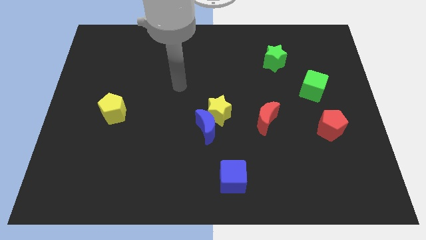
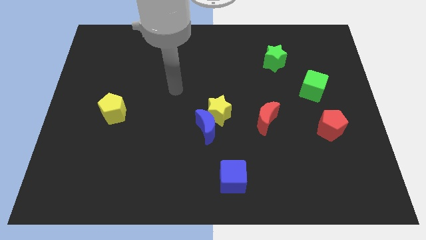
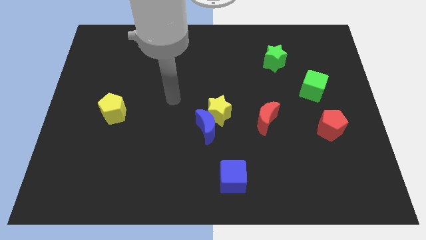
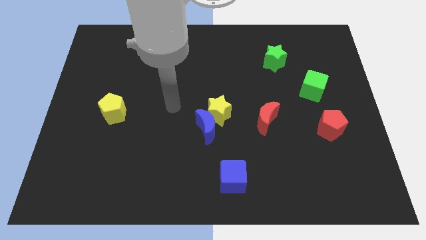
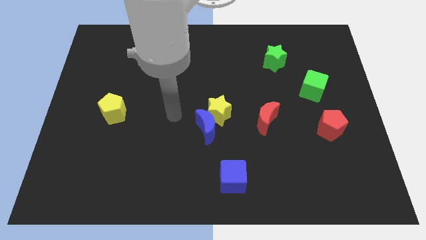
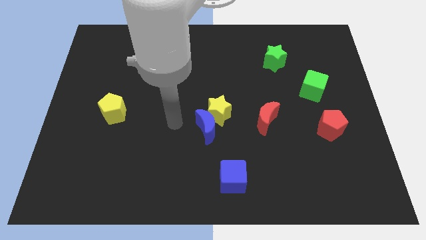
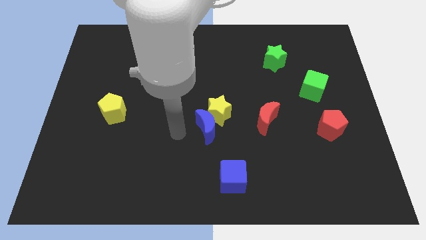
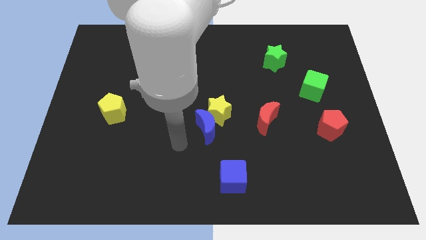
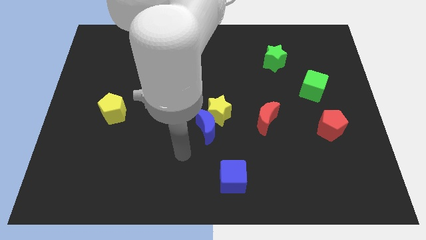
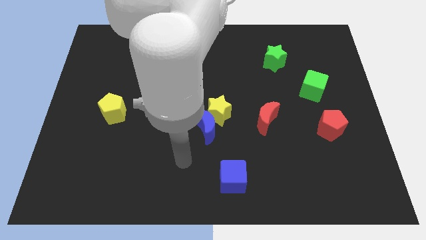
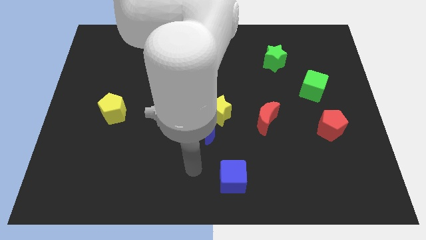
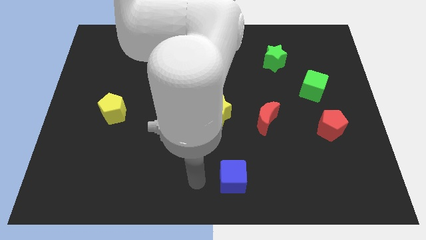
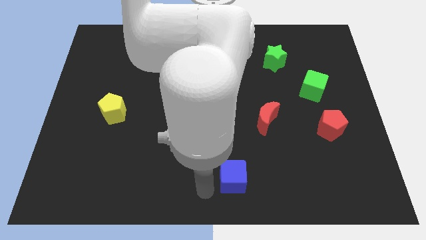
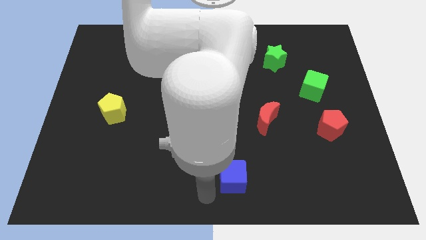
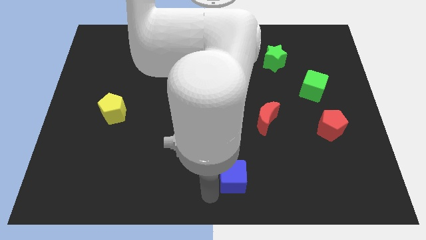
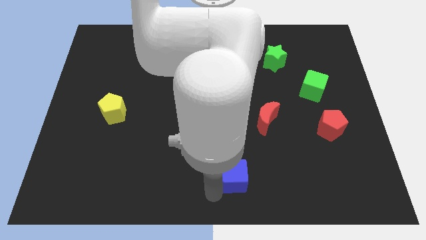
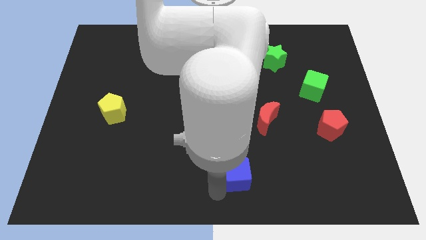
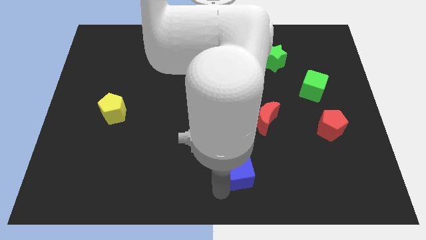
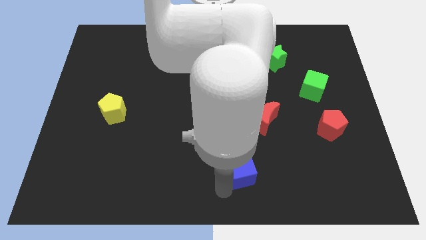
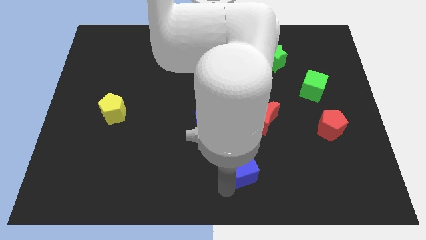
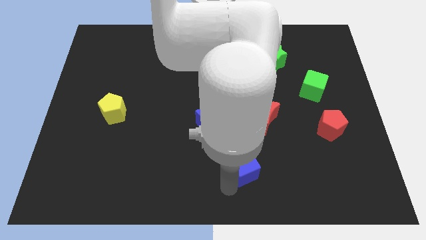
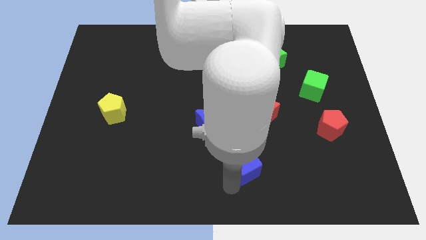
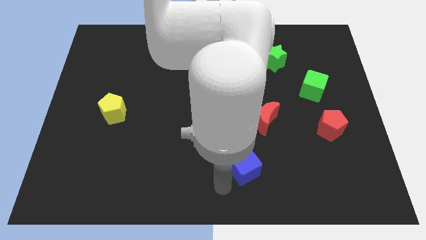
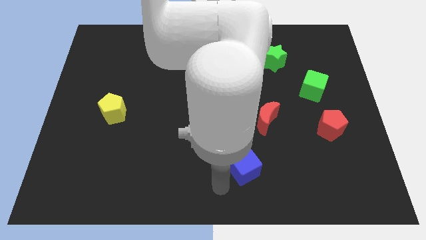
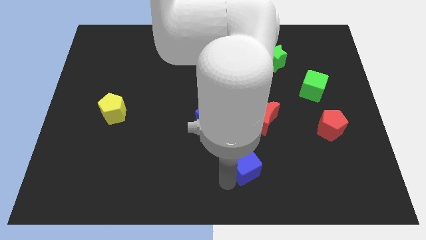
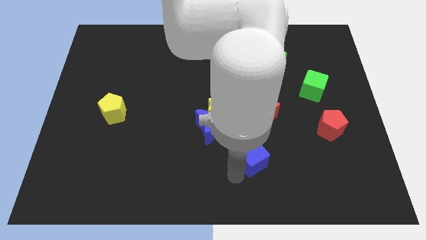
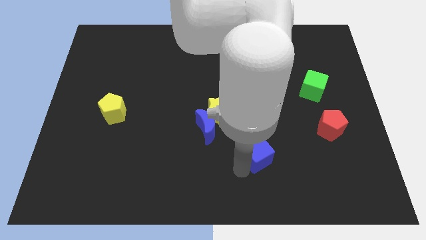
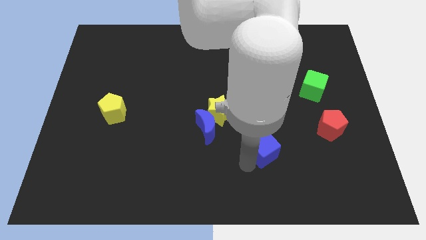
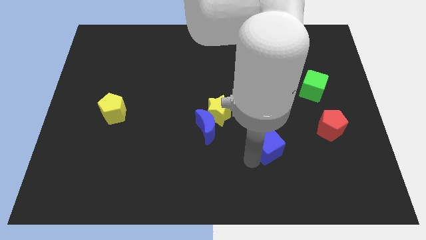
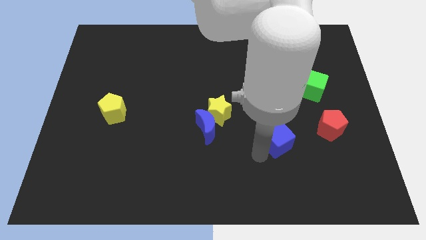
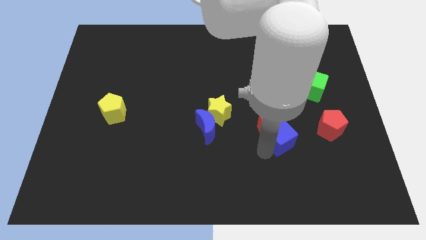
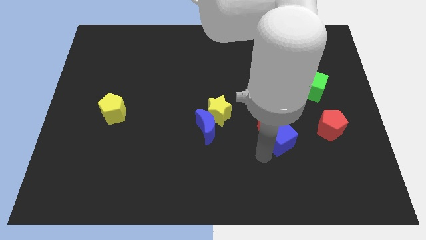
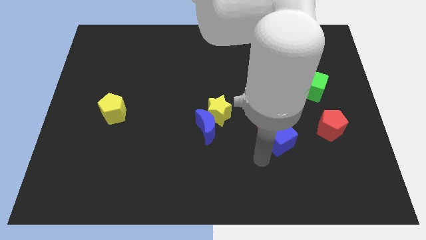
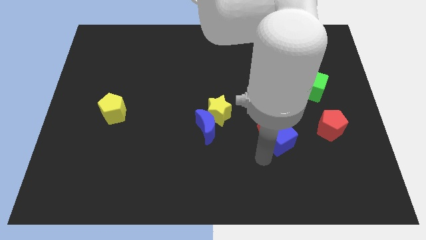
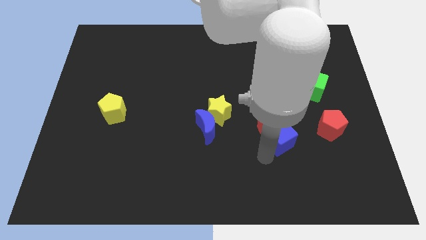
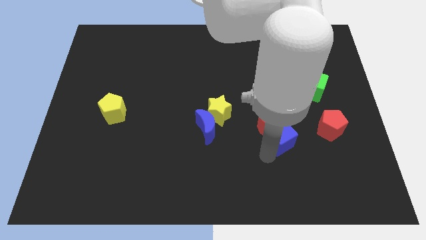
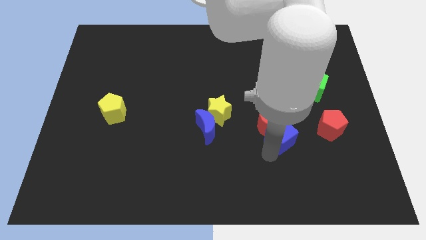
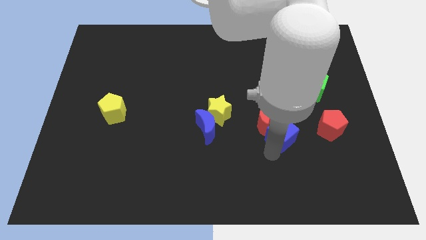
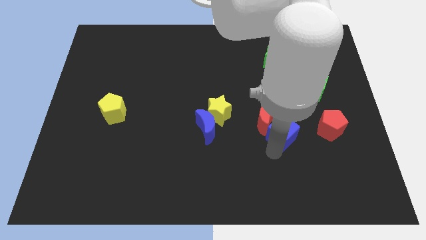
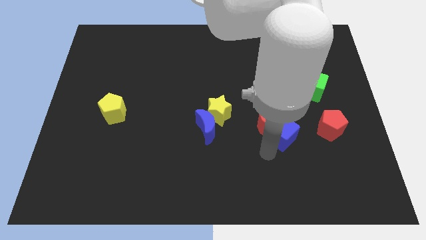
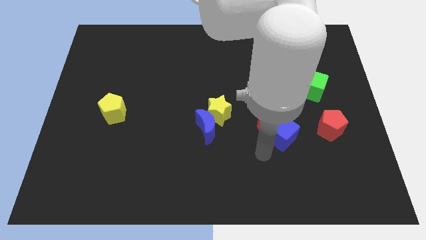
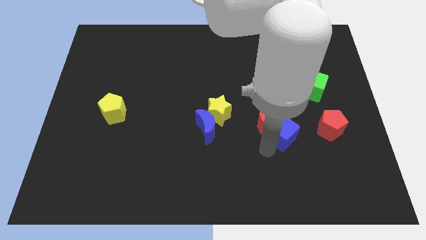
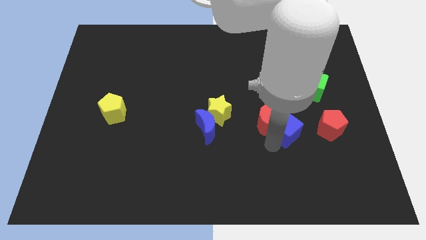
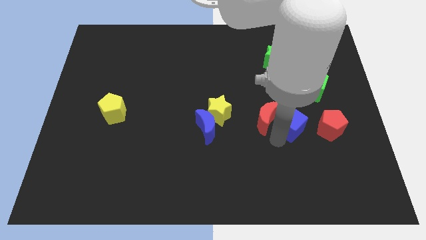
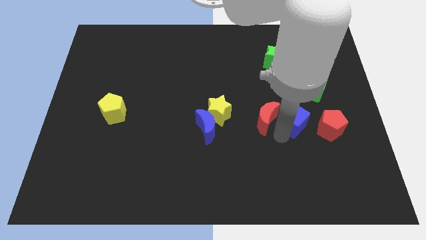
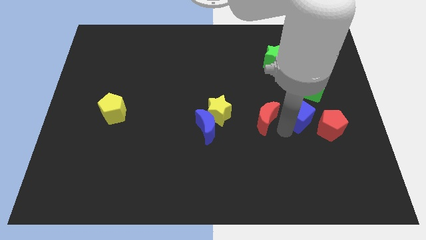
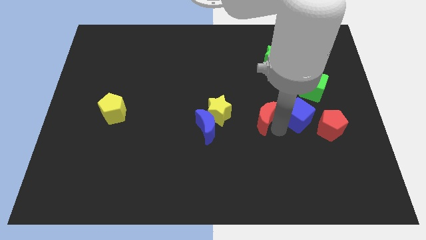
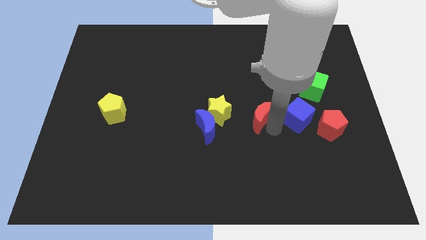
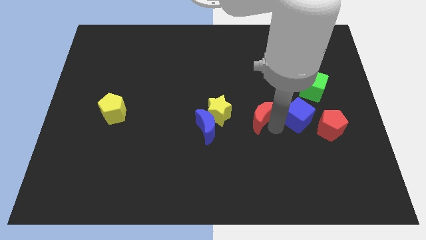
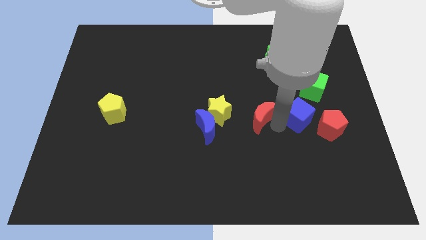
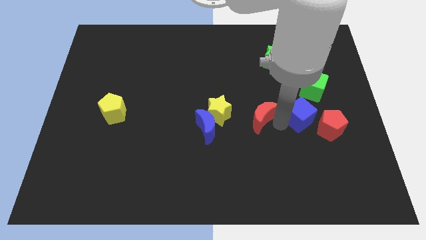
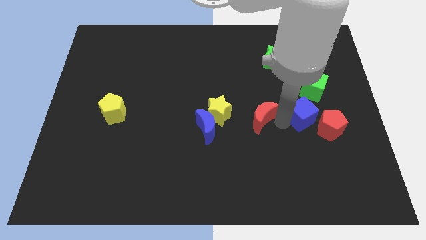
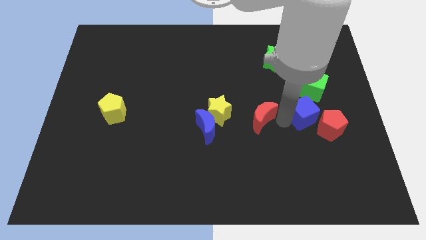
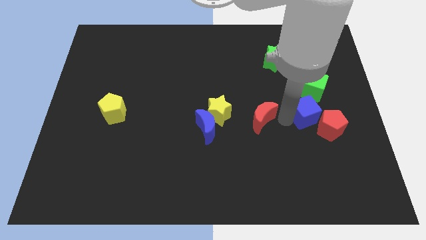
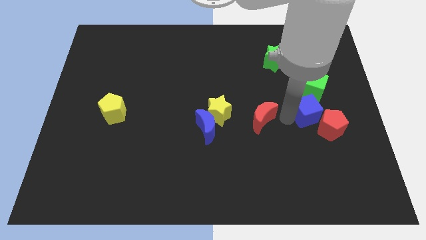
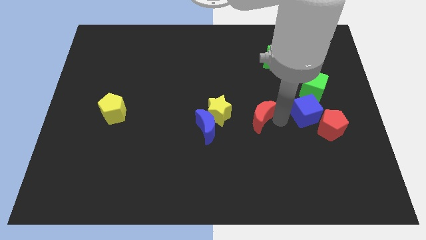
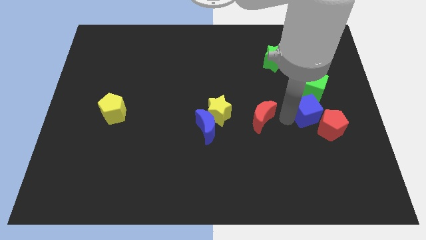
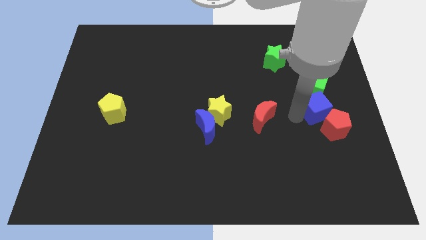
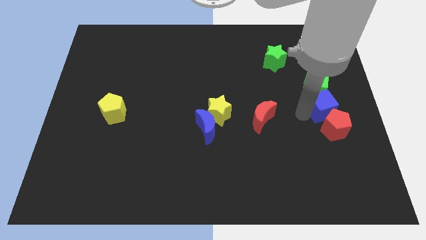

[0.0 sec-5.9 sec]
put the blue cube to the right side of the board

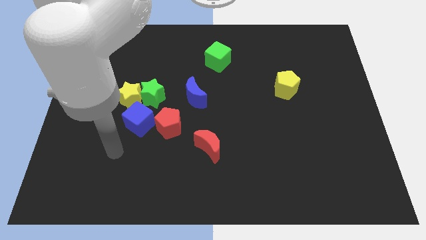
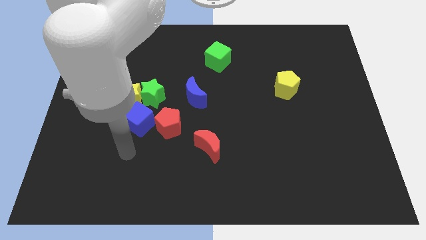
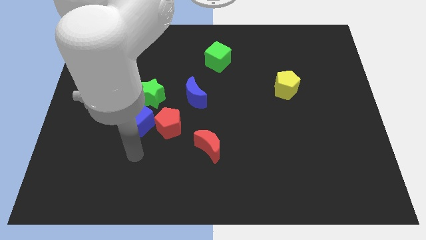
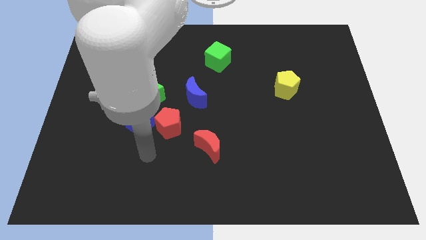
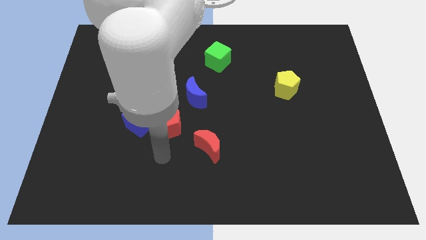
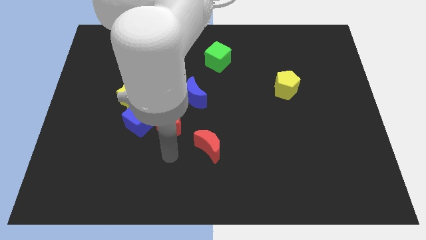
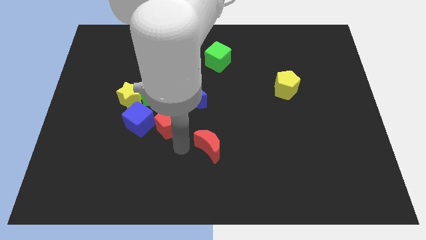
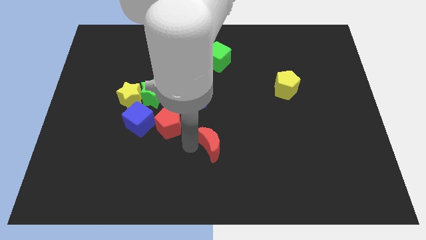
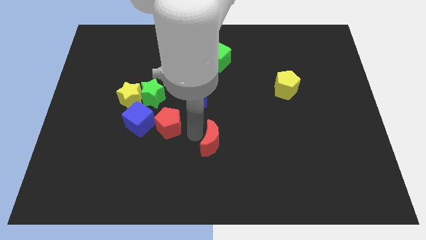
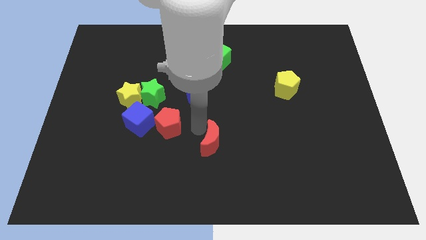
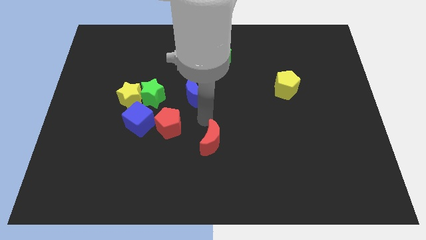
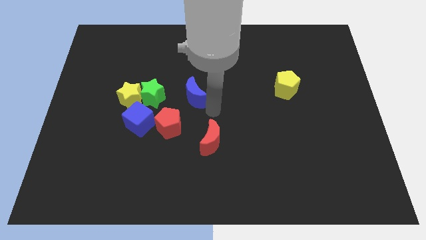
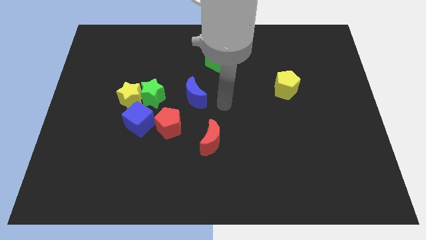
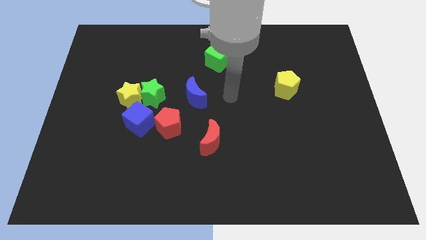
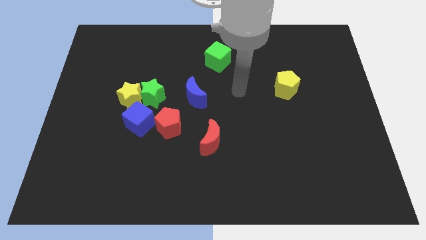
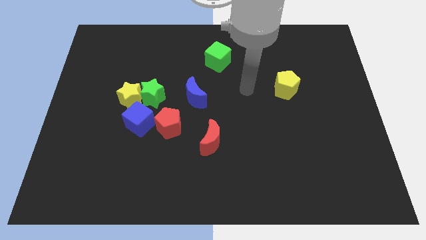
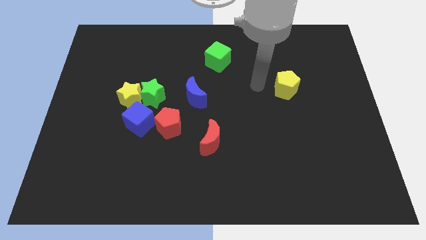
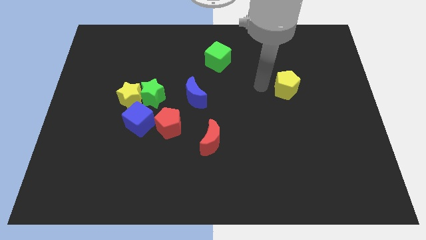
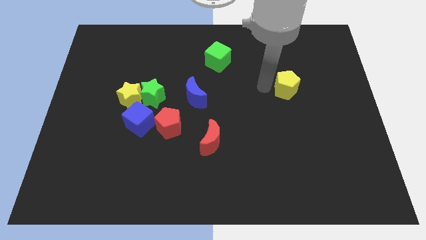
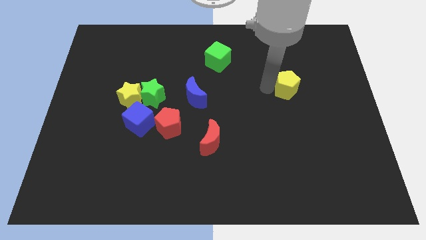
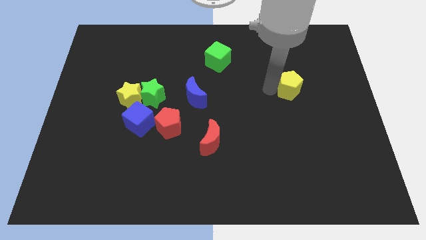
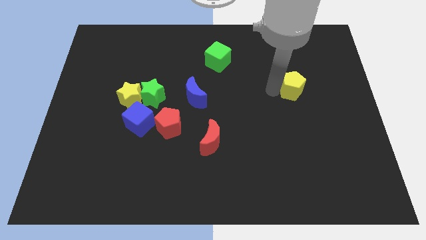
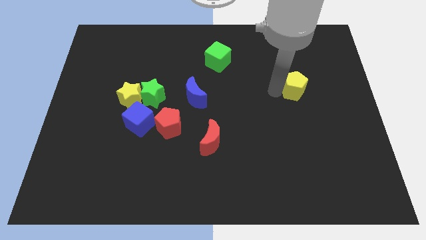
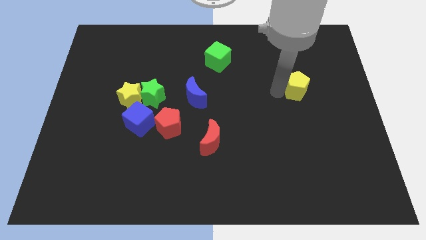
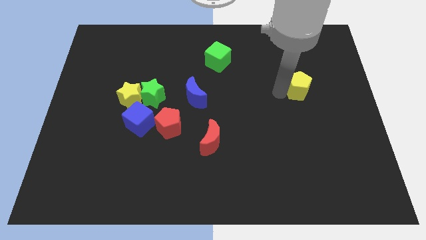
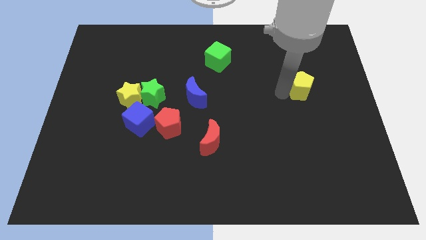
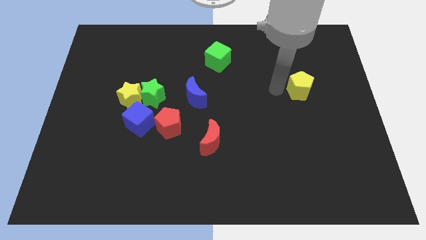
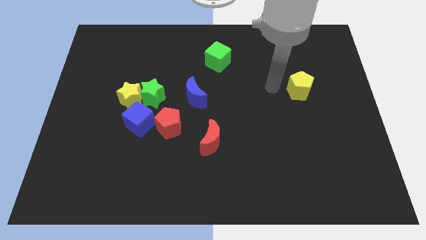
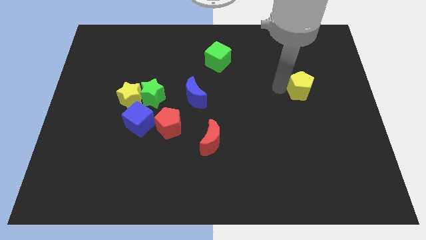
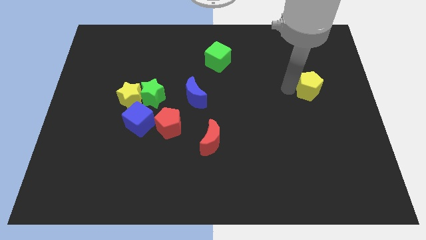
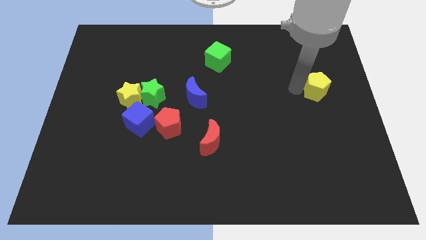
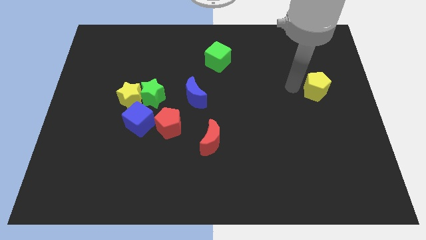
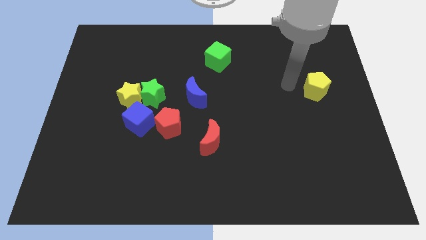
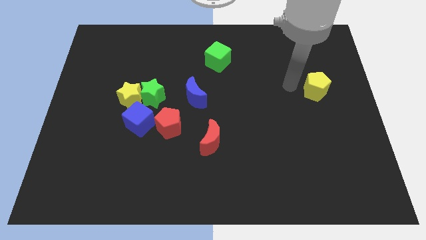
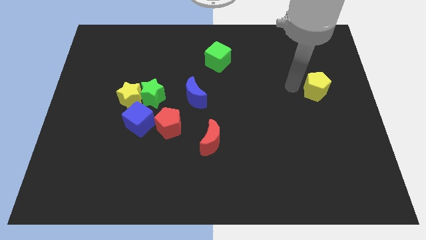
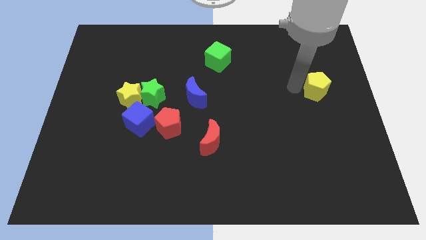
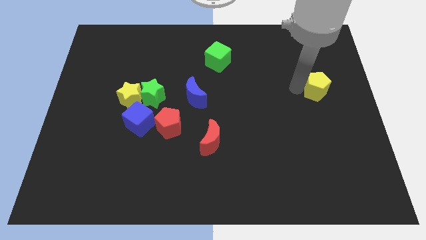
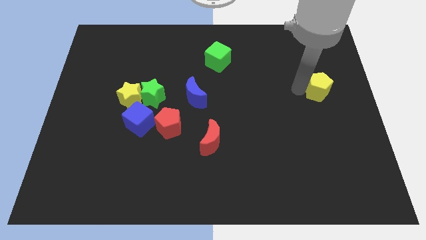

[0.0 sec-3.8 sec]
push the yellow pentagon to the right side of the board
